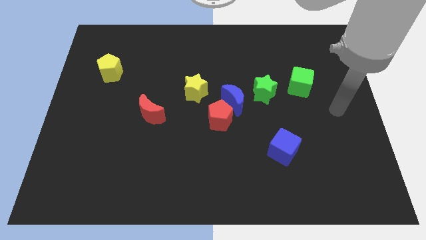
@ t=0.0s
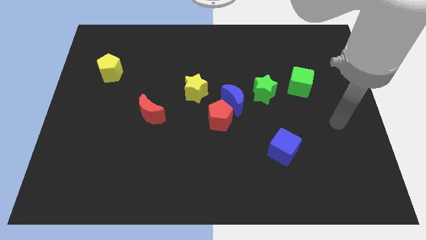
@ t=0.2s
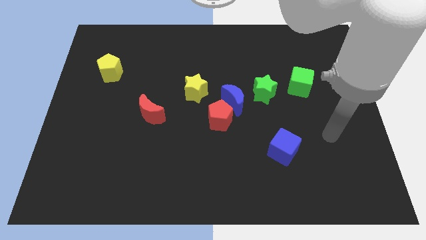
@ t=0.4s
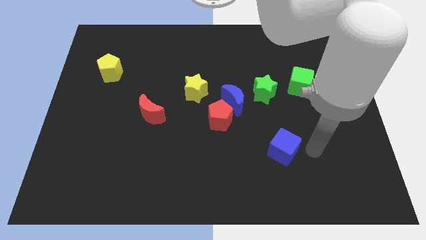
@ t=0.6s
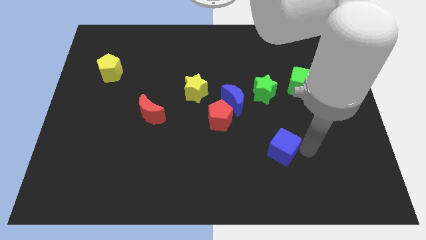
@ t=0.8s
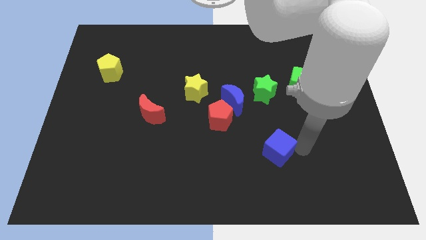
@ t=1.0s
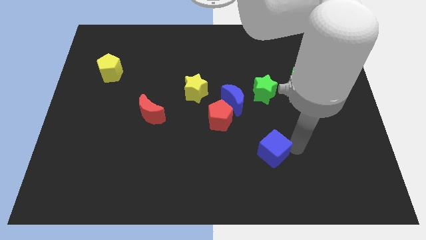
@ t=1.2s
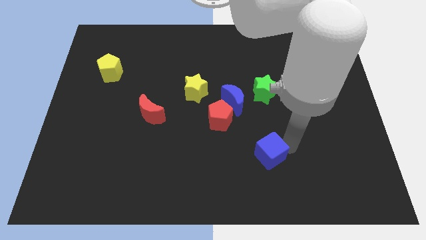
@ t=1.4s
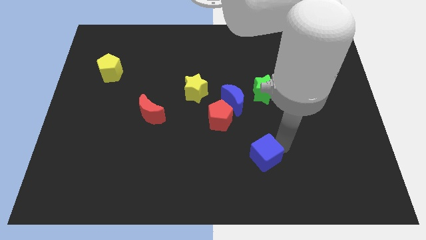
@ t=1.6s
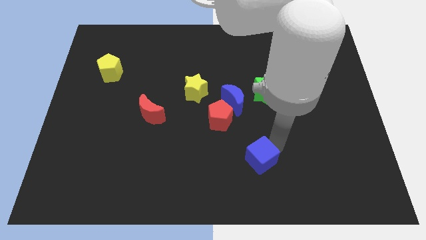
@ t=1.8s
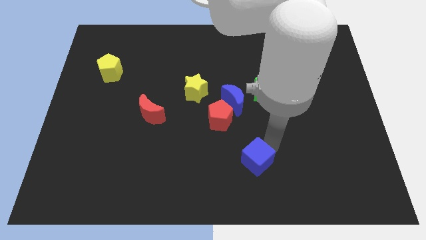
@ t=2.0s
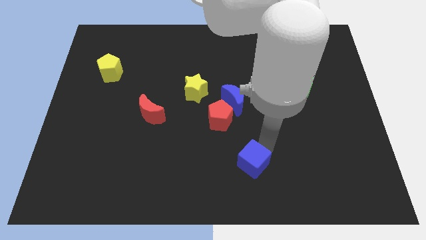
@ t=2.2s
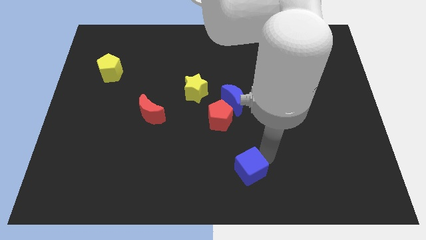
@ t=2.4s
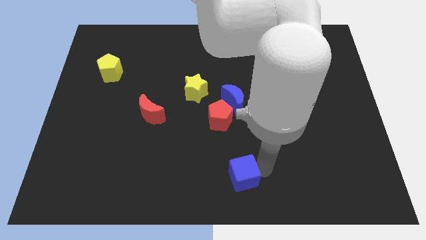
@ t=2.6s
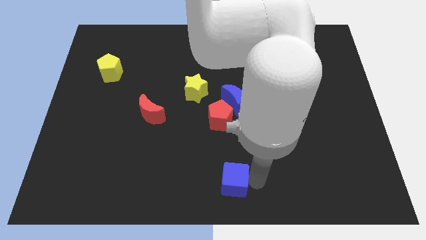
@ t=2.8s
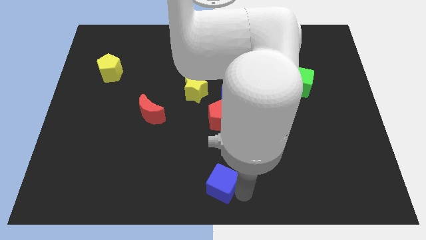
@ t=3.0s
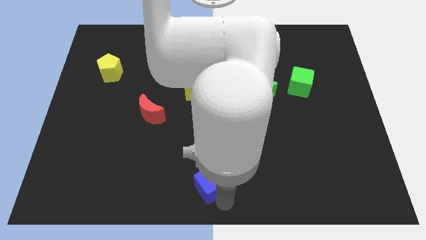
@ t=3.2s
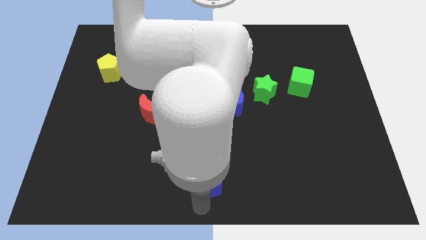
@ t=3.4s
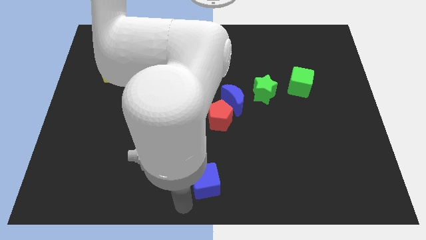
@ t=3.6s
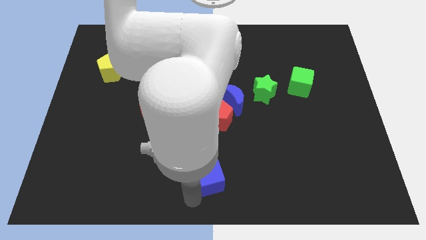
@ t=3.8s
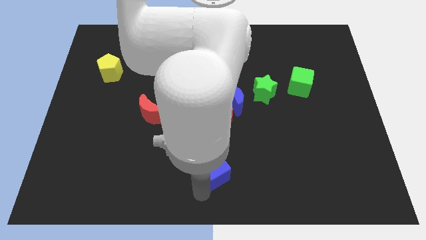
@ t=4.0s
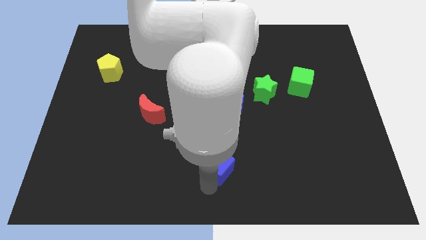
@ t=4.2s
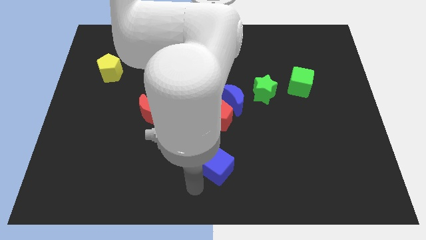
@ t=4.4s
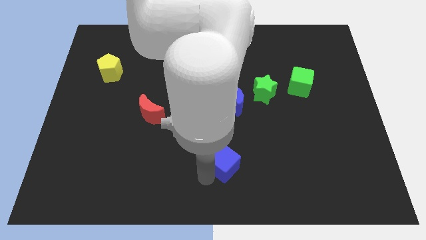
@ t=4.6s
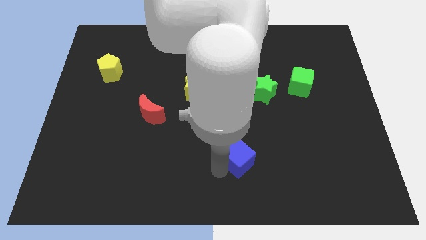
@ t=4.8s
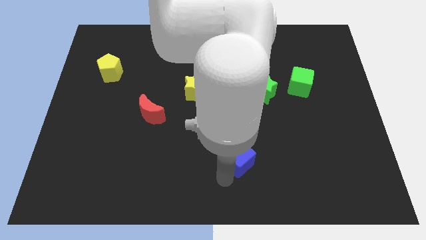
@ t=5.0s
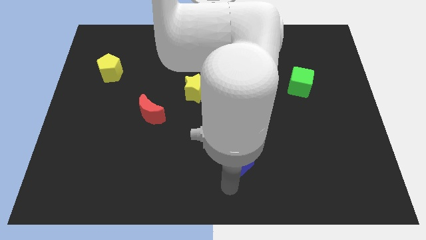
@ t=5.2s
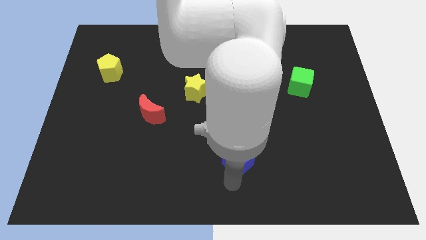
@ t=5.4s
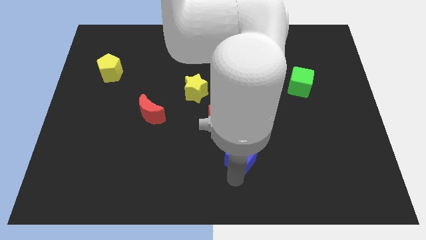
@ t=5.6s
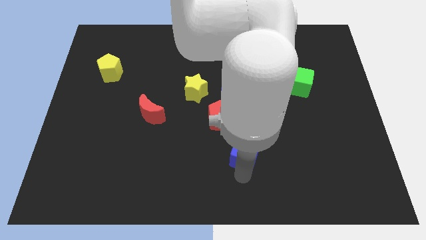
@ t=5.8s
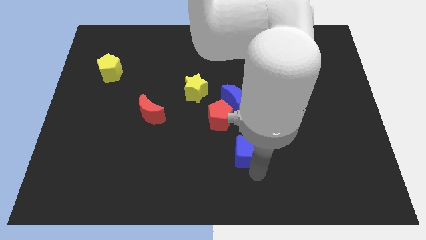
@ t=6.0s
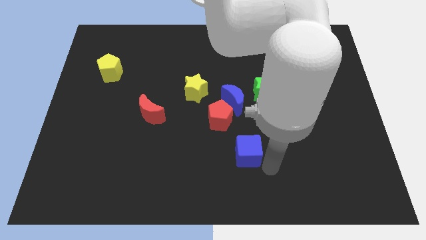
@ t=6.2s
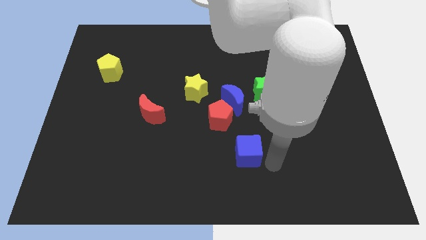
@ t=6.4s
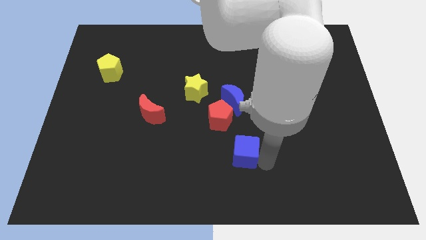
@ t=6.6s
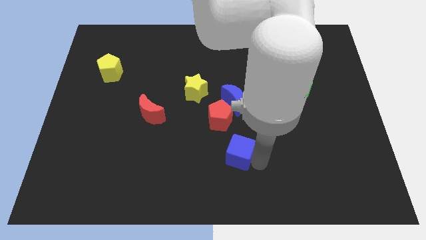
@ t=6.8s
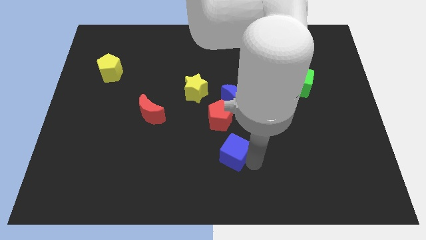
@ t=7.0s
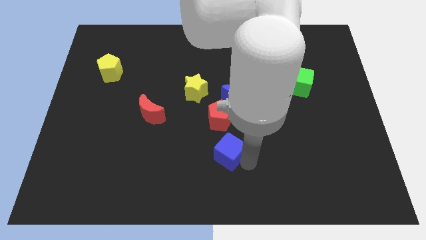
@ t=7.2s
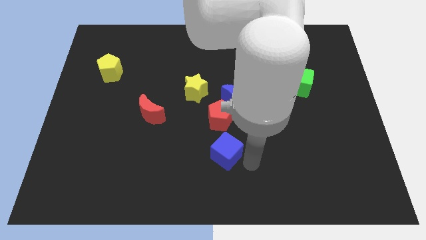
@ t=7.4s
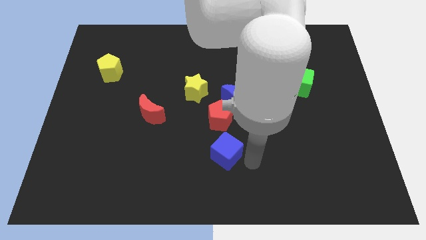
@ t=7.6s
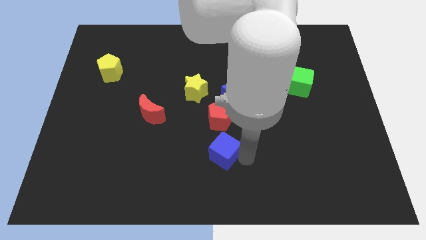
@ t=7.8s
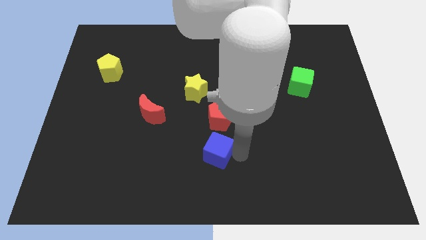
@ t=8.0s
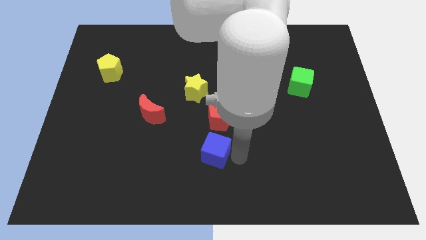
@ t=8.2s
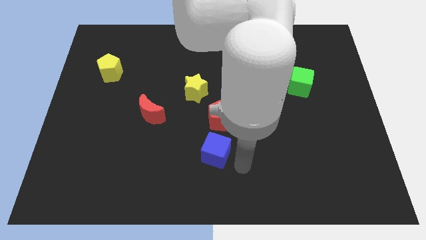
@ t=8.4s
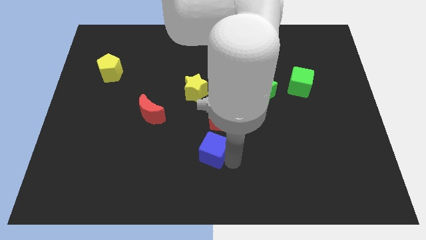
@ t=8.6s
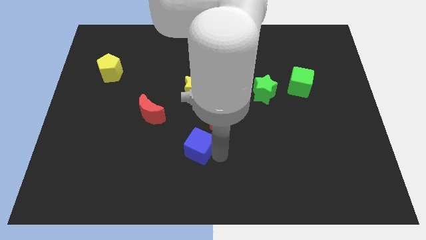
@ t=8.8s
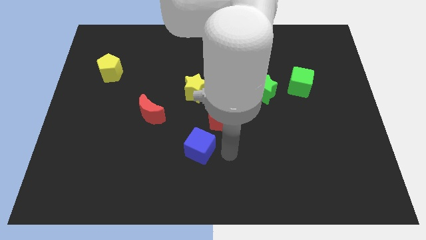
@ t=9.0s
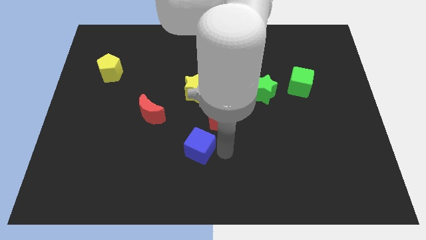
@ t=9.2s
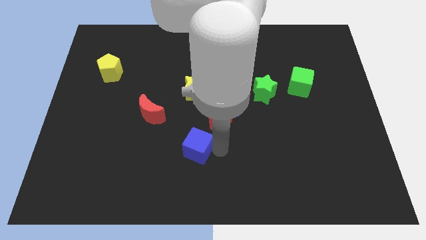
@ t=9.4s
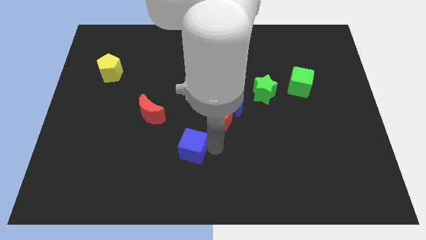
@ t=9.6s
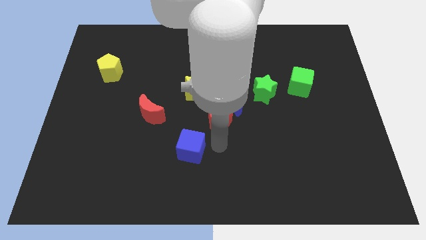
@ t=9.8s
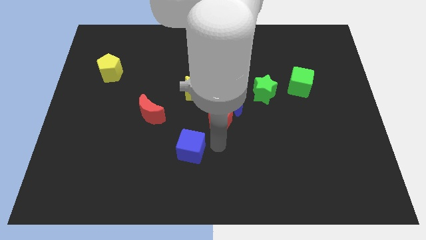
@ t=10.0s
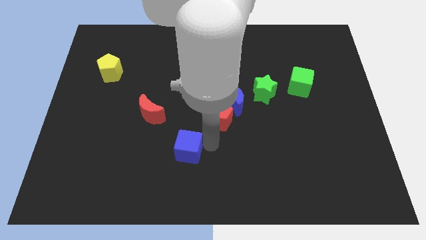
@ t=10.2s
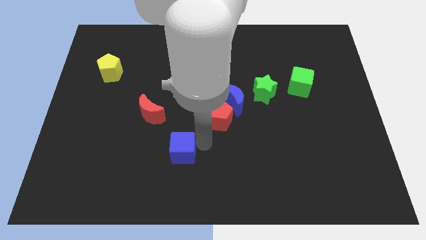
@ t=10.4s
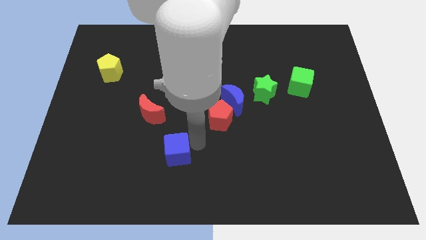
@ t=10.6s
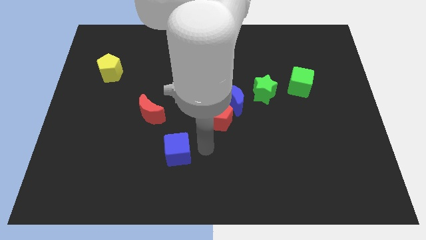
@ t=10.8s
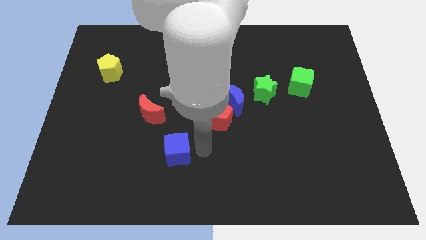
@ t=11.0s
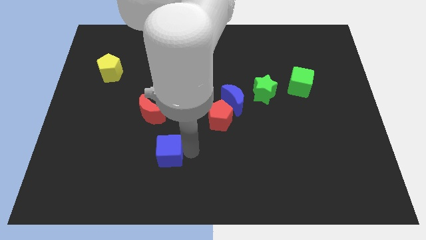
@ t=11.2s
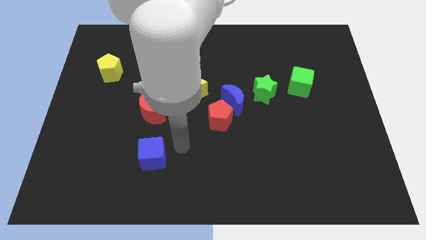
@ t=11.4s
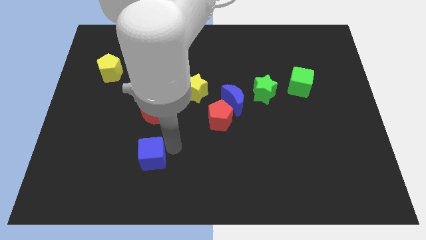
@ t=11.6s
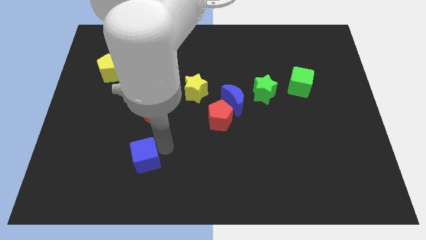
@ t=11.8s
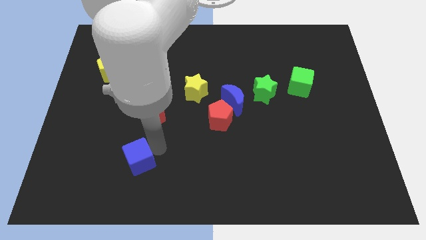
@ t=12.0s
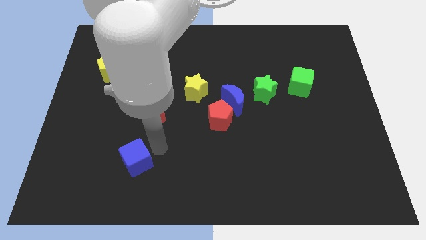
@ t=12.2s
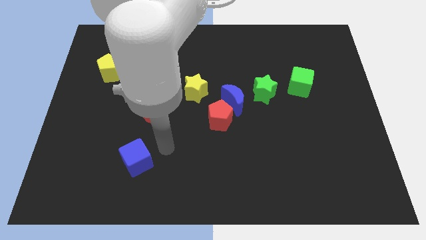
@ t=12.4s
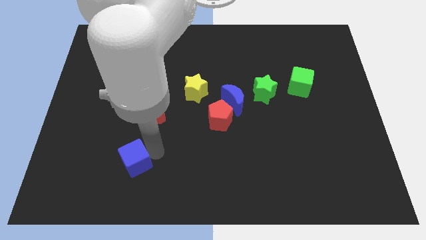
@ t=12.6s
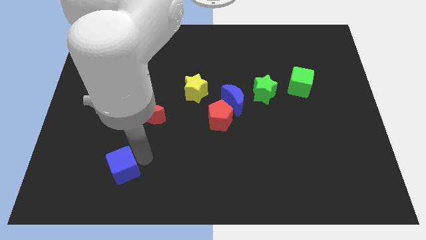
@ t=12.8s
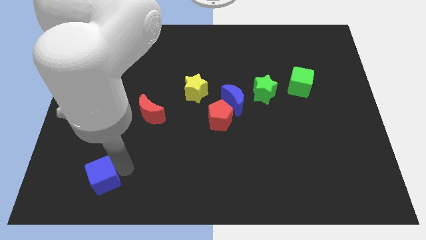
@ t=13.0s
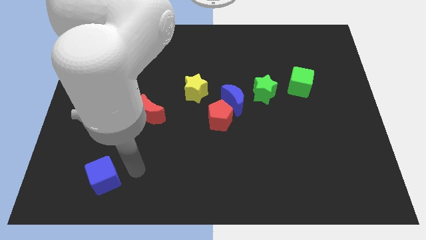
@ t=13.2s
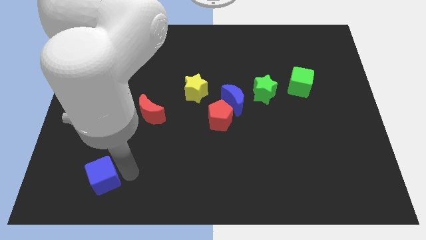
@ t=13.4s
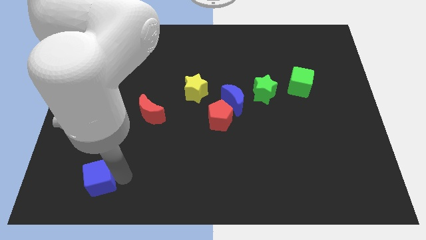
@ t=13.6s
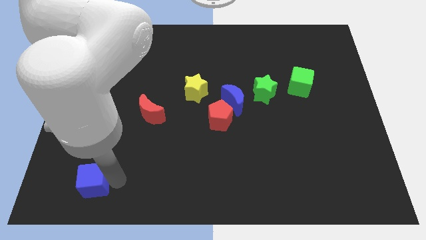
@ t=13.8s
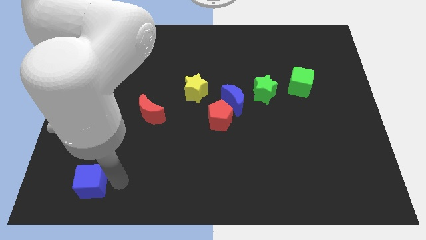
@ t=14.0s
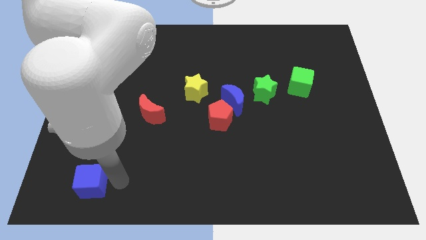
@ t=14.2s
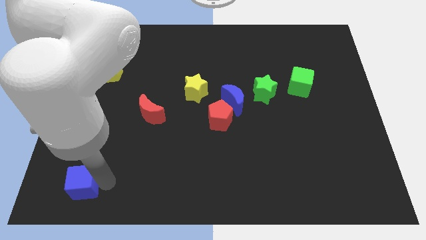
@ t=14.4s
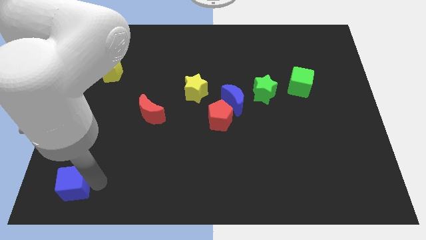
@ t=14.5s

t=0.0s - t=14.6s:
push the blue cube to the bottom left
